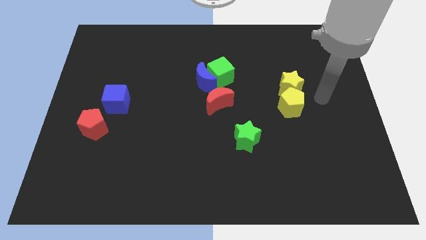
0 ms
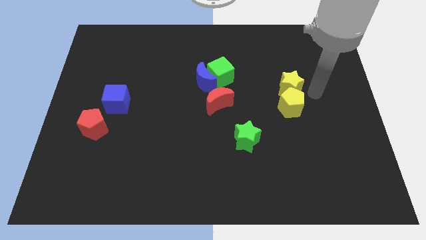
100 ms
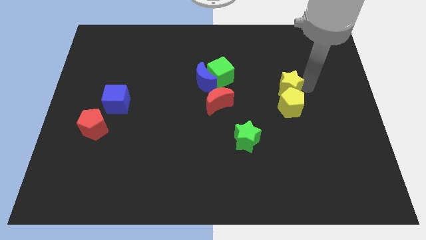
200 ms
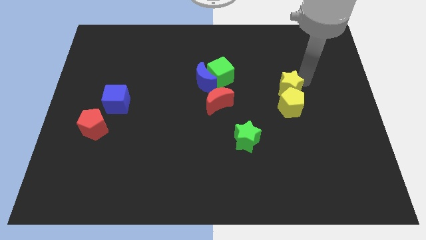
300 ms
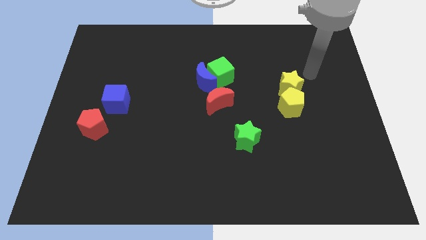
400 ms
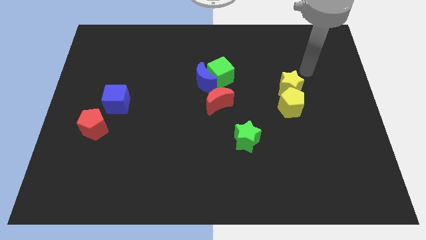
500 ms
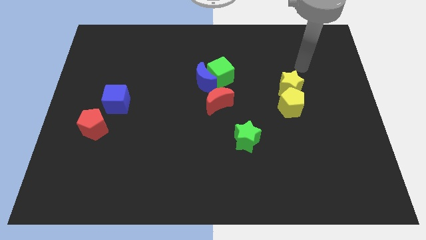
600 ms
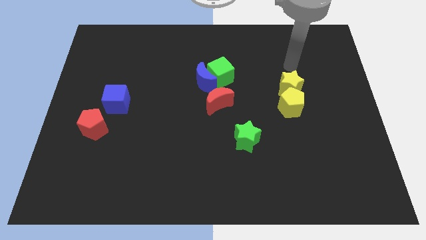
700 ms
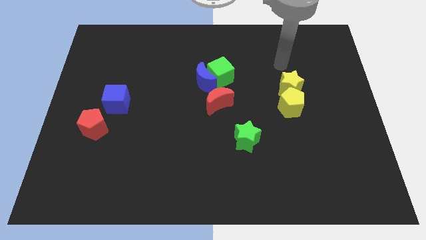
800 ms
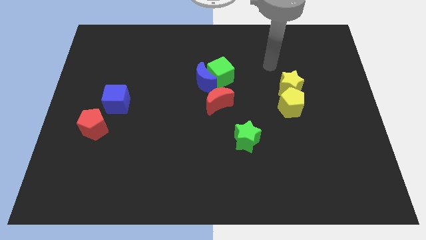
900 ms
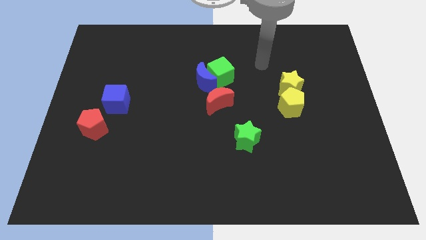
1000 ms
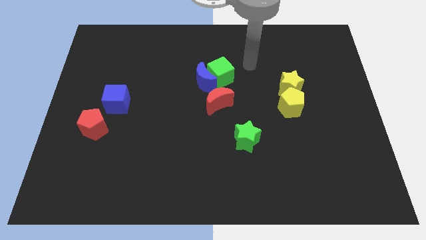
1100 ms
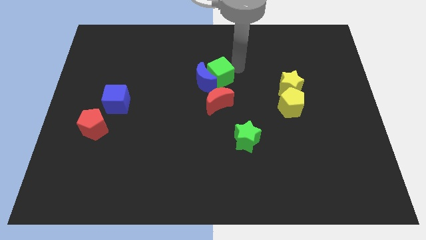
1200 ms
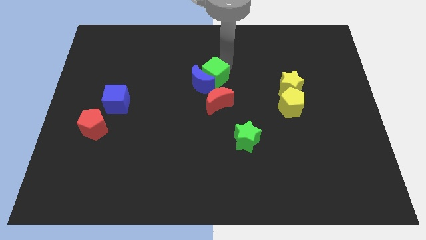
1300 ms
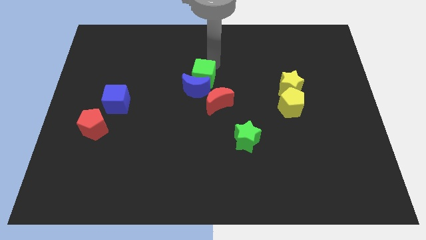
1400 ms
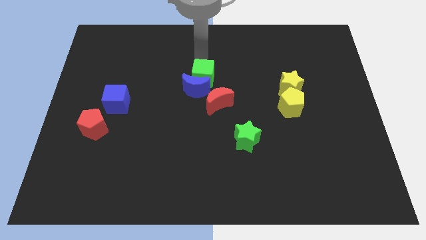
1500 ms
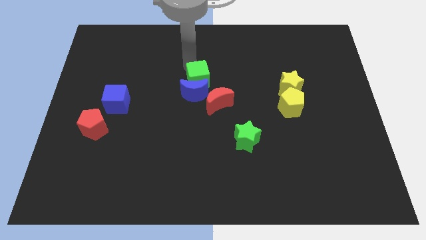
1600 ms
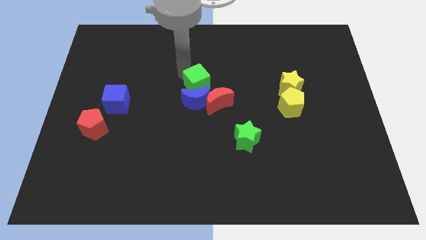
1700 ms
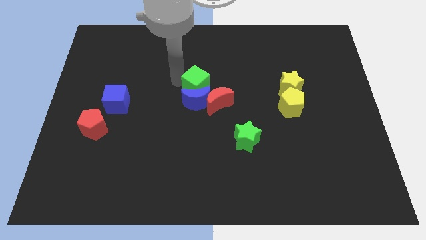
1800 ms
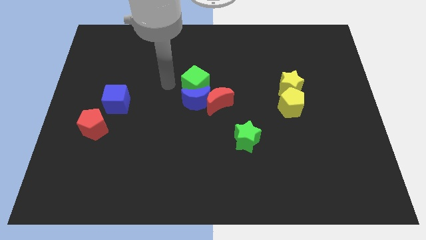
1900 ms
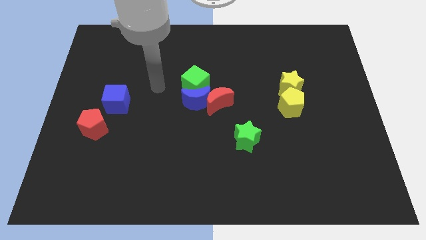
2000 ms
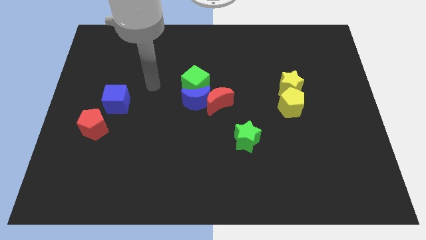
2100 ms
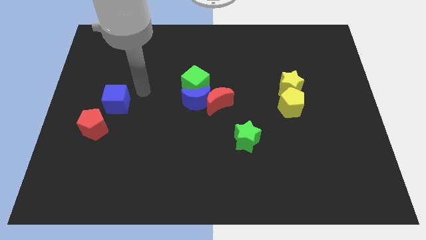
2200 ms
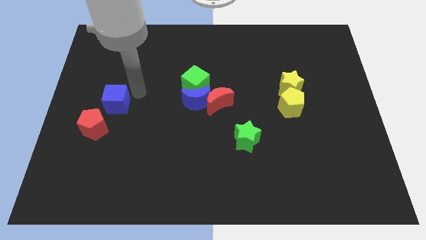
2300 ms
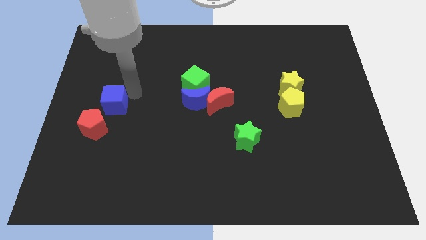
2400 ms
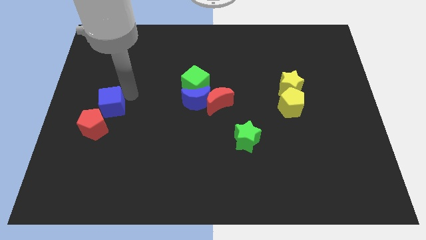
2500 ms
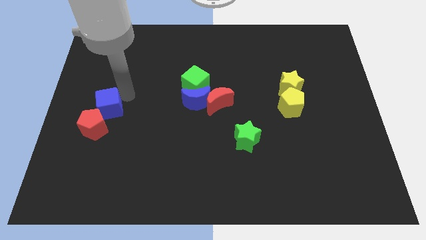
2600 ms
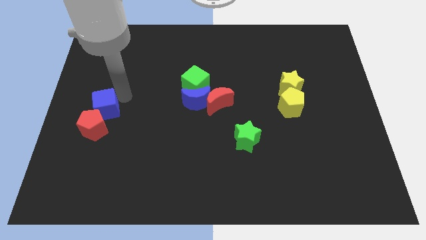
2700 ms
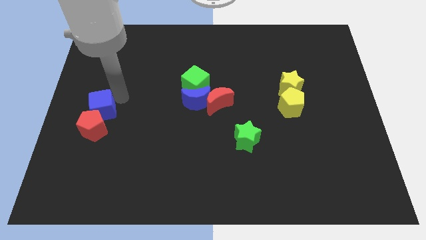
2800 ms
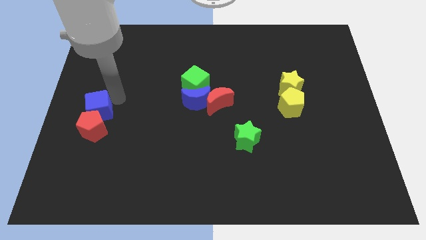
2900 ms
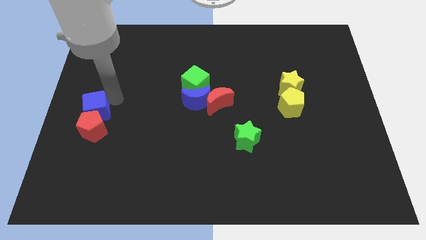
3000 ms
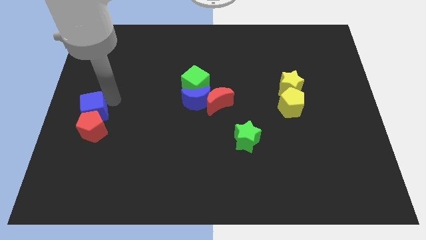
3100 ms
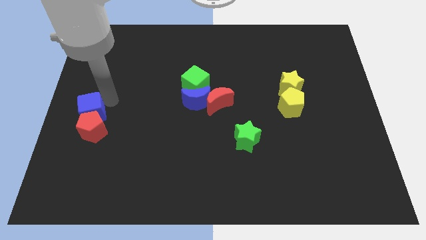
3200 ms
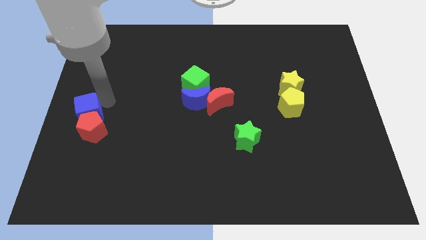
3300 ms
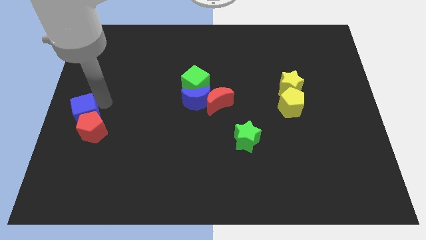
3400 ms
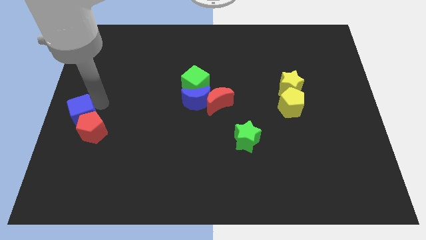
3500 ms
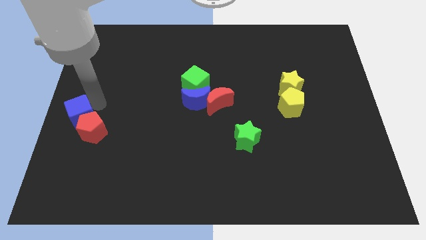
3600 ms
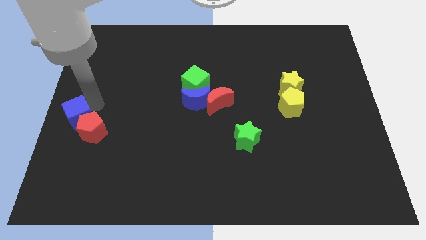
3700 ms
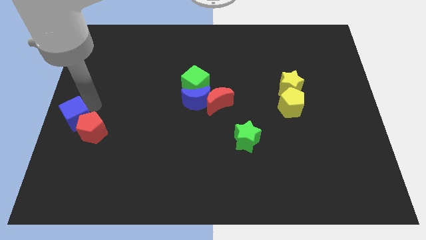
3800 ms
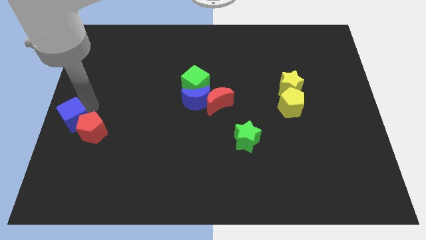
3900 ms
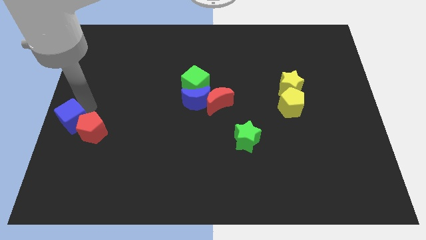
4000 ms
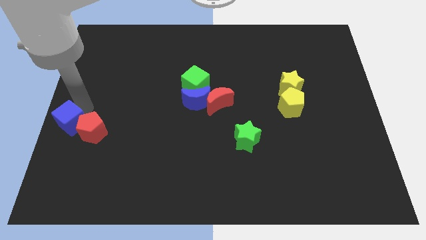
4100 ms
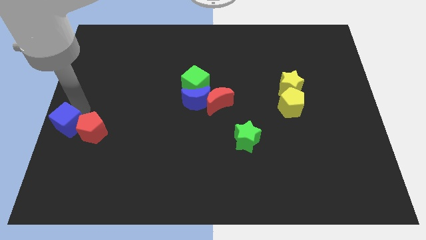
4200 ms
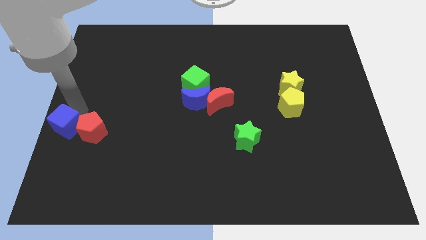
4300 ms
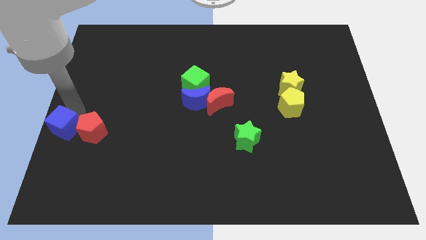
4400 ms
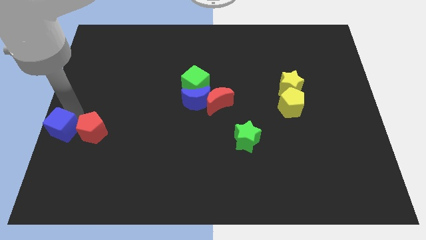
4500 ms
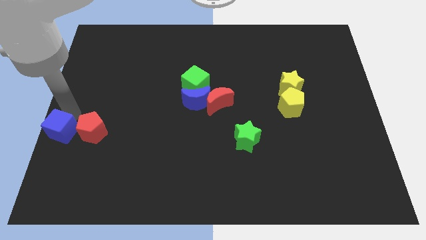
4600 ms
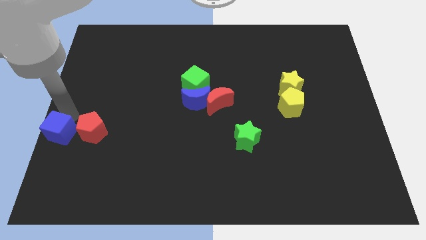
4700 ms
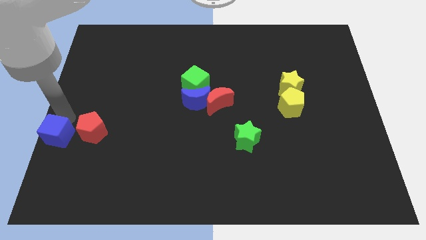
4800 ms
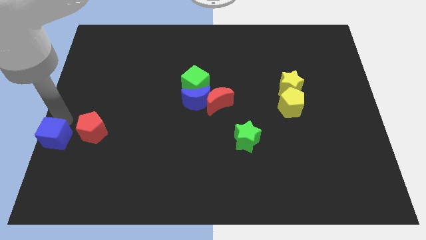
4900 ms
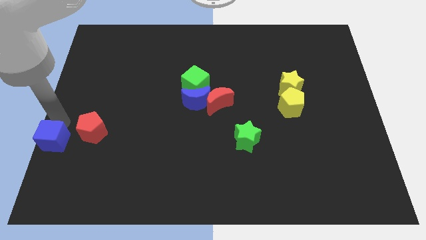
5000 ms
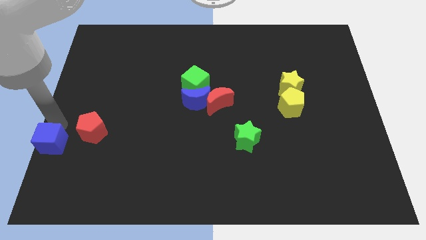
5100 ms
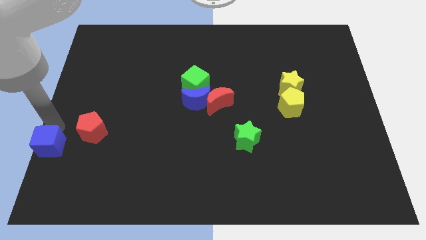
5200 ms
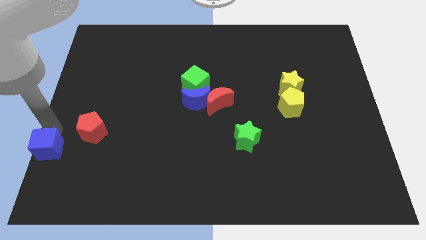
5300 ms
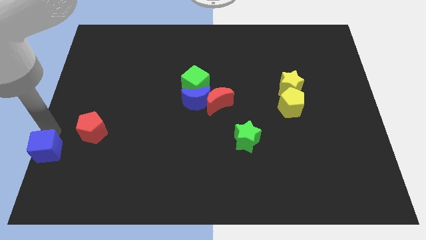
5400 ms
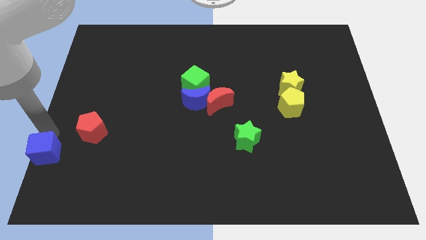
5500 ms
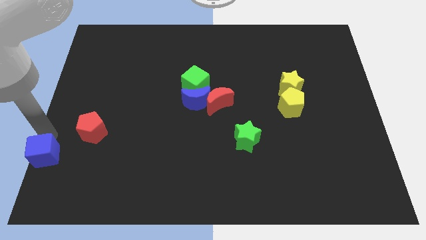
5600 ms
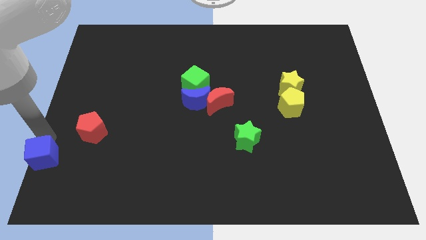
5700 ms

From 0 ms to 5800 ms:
move the blue cube to the lower left corner

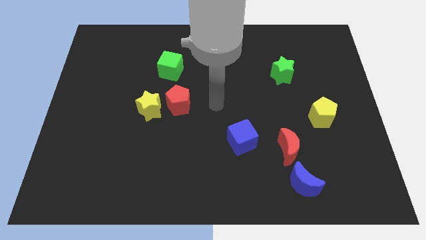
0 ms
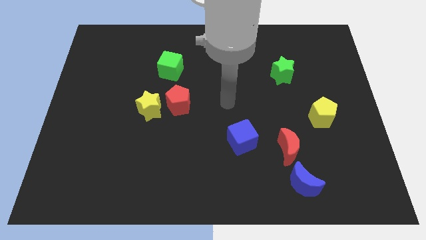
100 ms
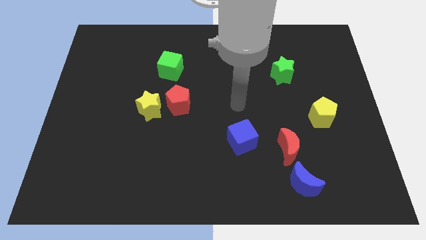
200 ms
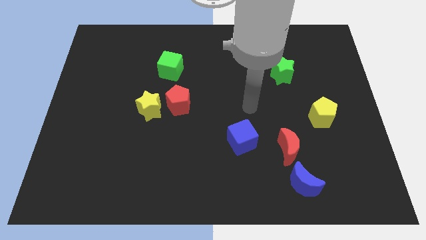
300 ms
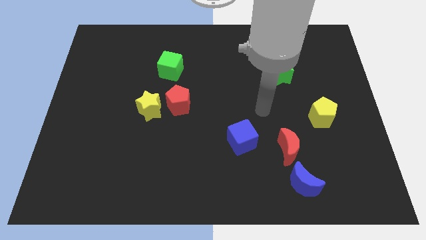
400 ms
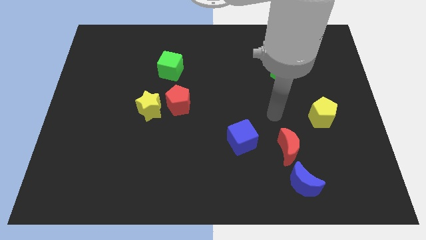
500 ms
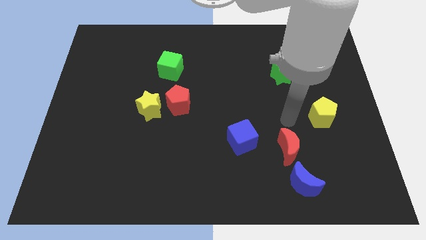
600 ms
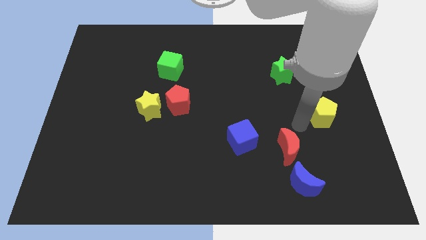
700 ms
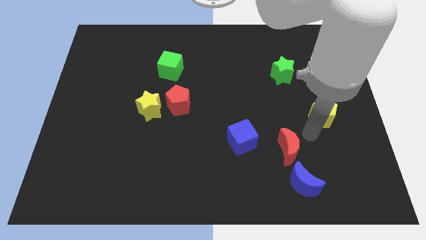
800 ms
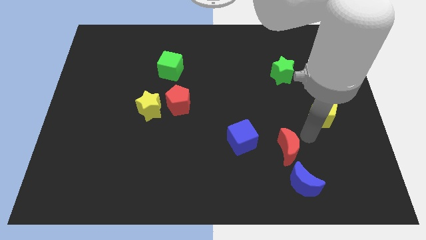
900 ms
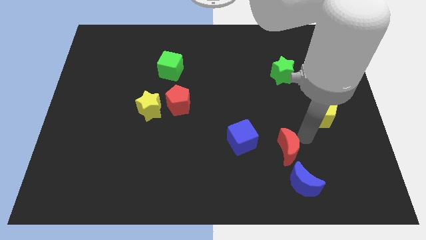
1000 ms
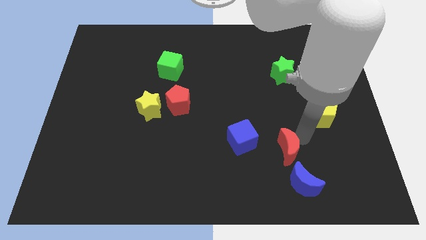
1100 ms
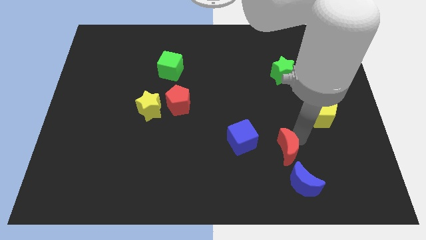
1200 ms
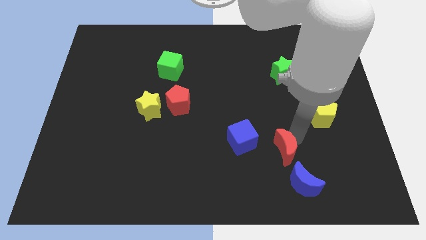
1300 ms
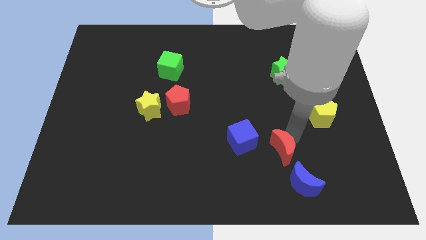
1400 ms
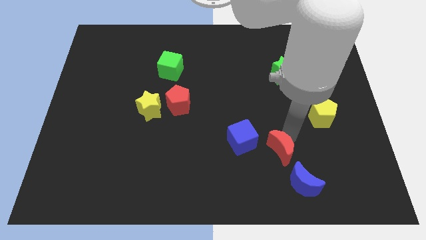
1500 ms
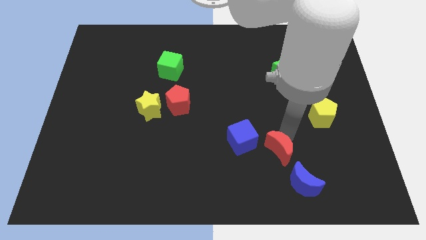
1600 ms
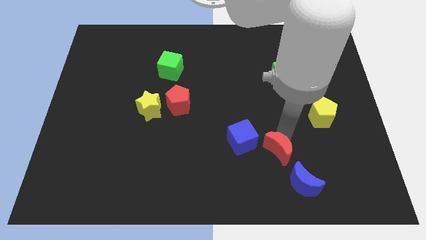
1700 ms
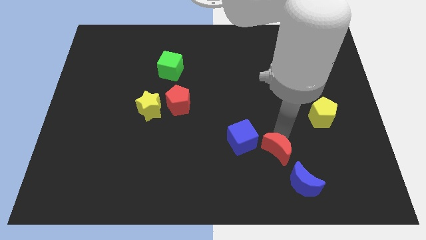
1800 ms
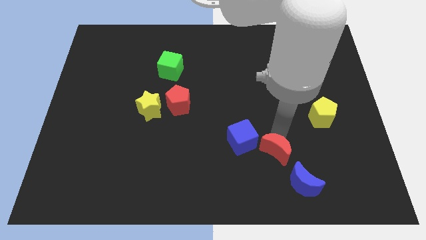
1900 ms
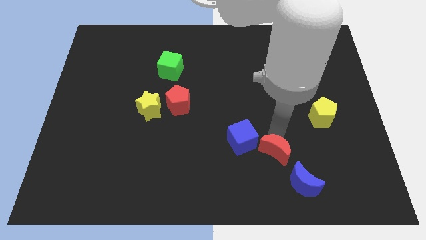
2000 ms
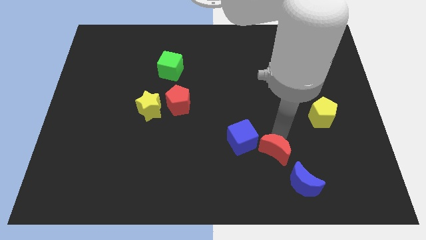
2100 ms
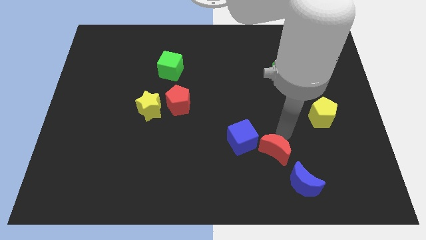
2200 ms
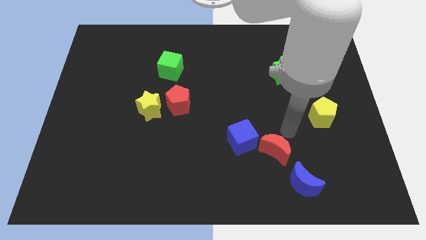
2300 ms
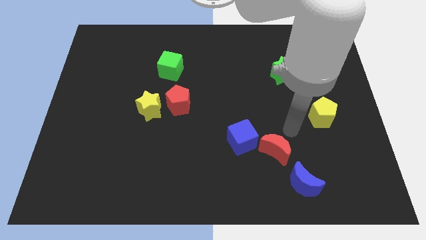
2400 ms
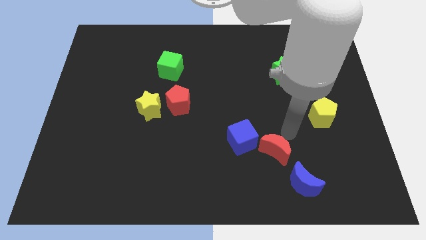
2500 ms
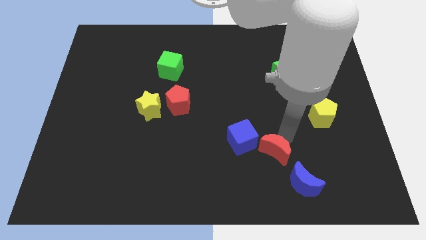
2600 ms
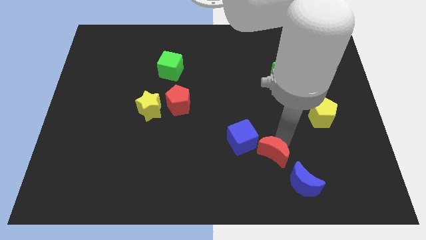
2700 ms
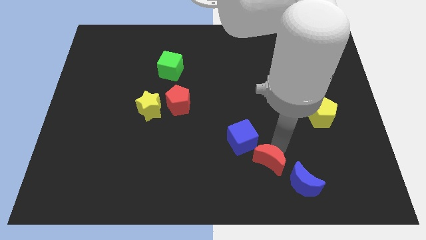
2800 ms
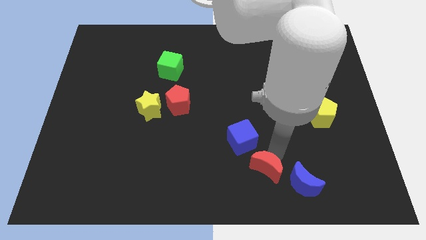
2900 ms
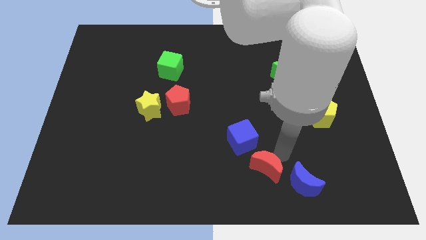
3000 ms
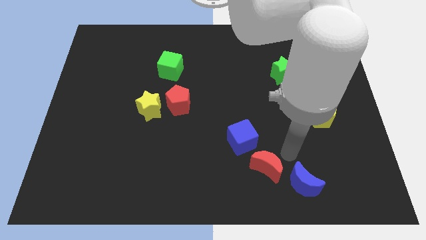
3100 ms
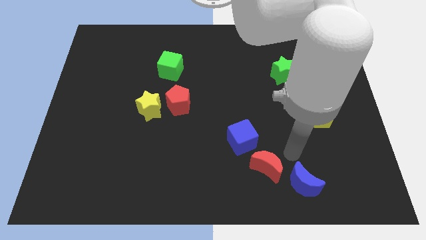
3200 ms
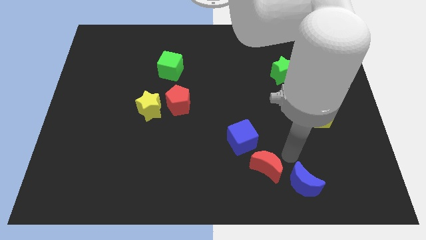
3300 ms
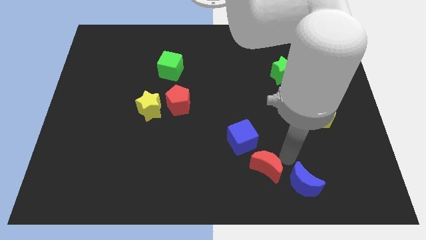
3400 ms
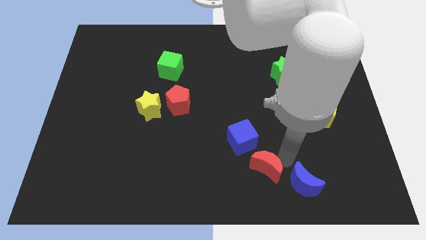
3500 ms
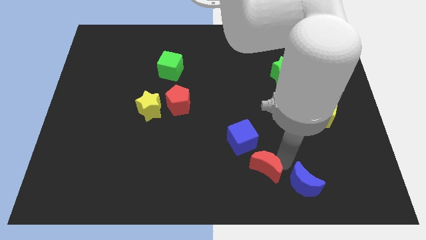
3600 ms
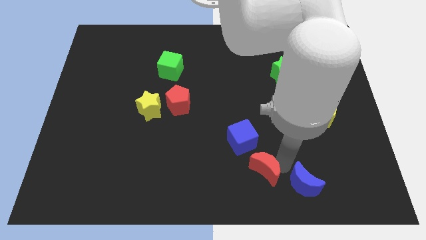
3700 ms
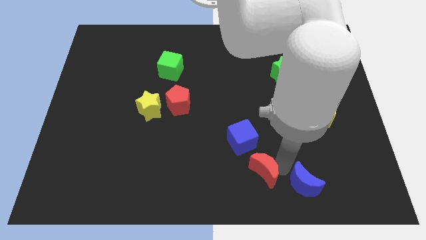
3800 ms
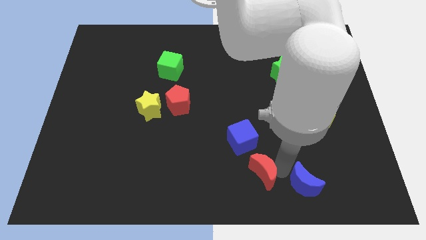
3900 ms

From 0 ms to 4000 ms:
slide the red moon to the bottom side
